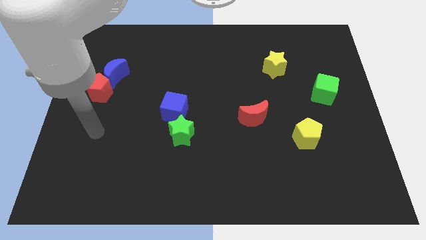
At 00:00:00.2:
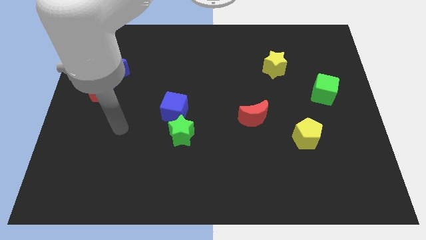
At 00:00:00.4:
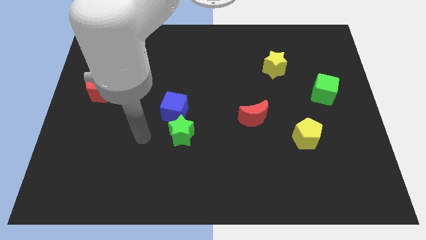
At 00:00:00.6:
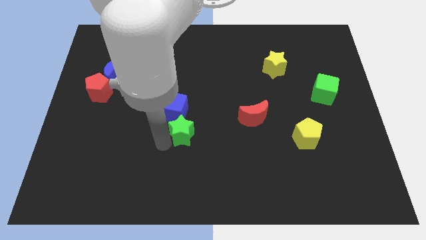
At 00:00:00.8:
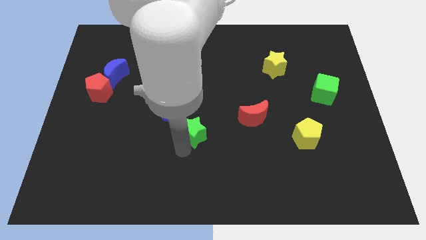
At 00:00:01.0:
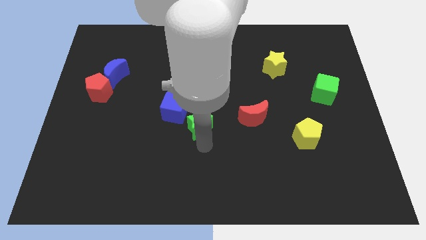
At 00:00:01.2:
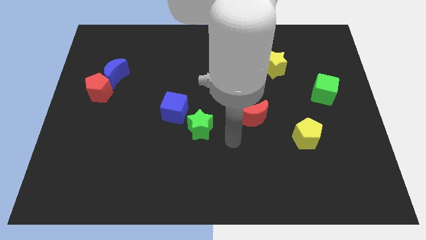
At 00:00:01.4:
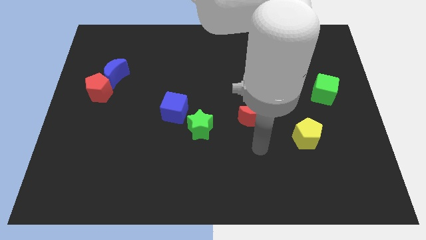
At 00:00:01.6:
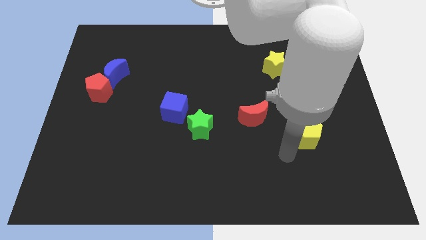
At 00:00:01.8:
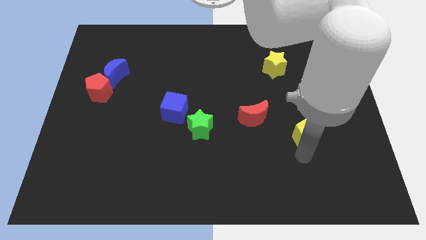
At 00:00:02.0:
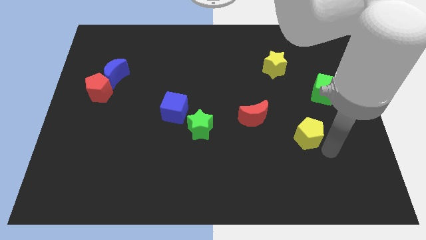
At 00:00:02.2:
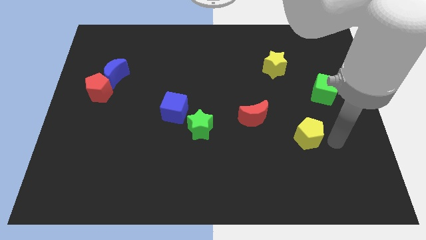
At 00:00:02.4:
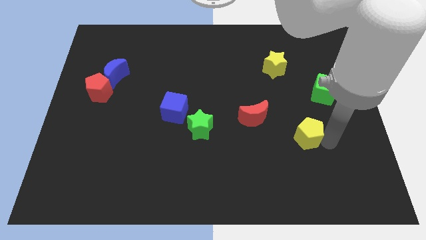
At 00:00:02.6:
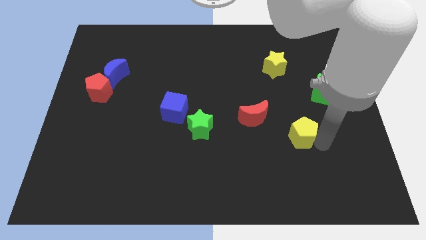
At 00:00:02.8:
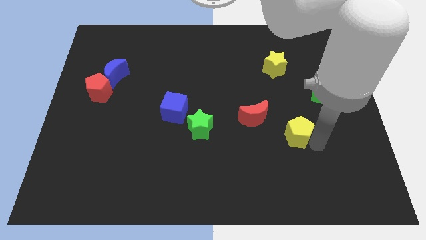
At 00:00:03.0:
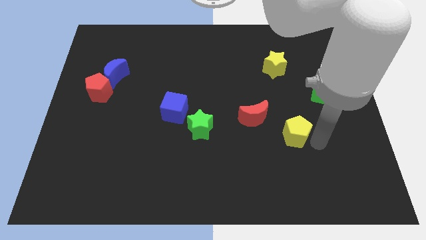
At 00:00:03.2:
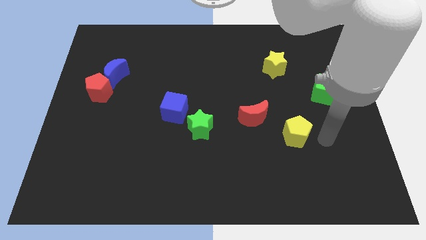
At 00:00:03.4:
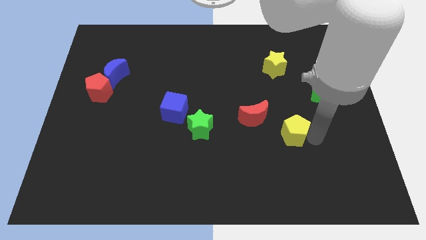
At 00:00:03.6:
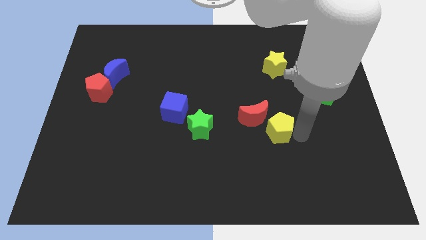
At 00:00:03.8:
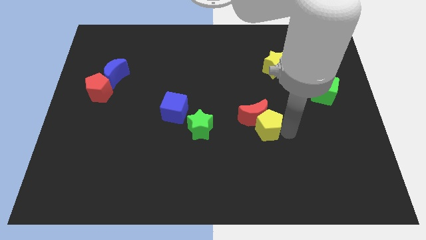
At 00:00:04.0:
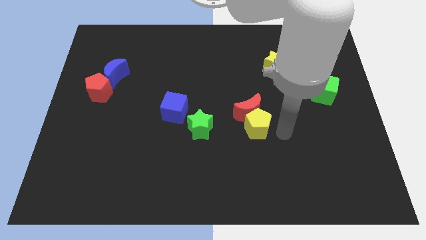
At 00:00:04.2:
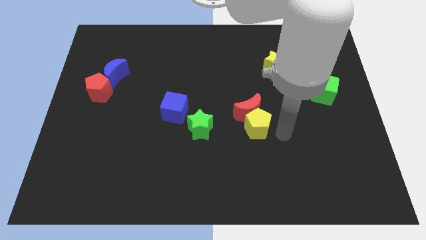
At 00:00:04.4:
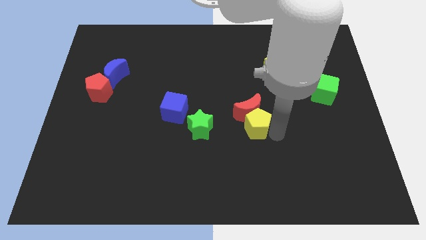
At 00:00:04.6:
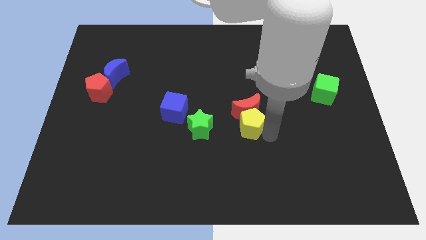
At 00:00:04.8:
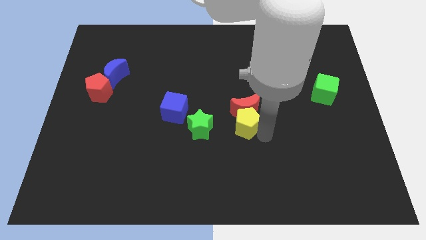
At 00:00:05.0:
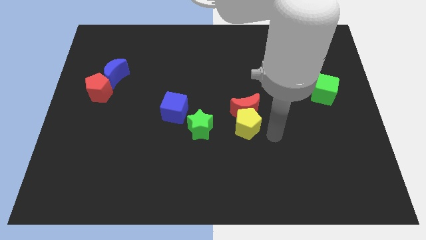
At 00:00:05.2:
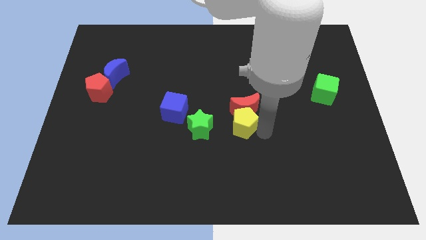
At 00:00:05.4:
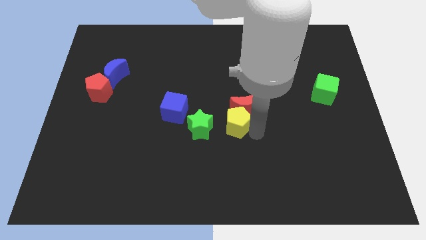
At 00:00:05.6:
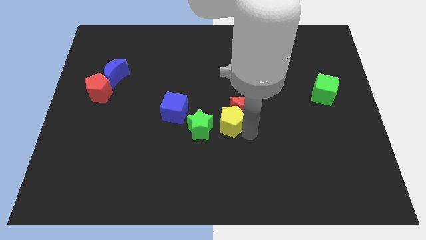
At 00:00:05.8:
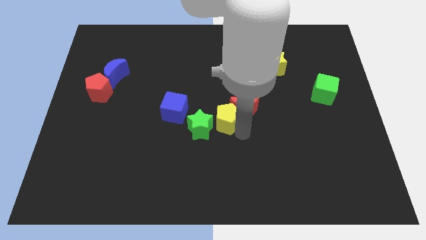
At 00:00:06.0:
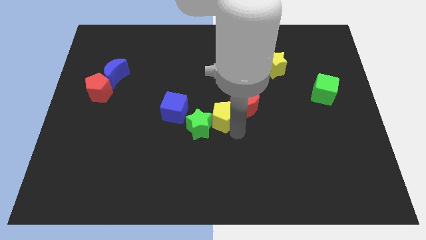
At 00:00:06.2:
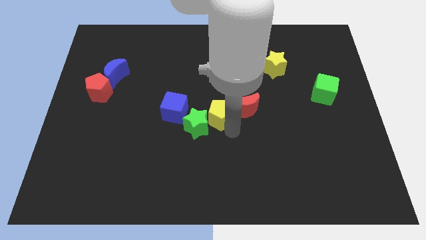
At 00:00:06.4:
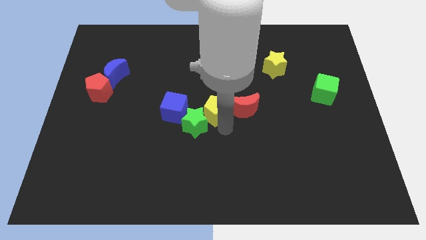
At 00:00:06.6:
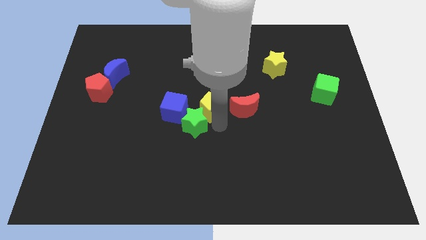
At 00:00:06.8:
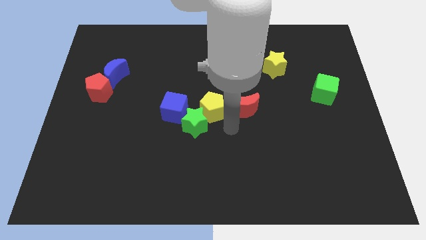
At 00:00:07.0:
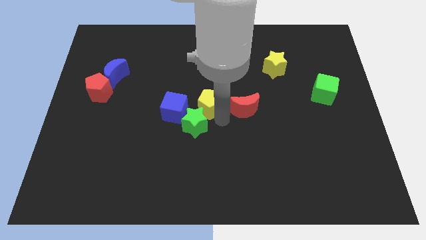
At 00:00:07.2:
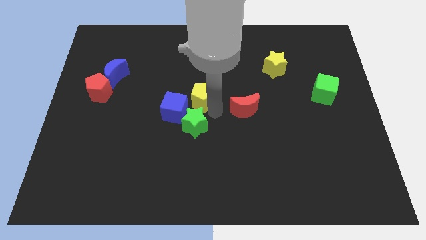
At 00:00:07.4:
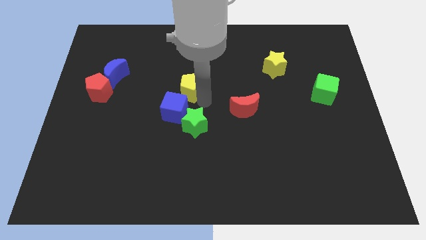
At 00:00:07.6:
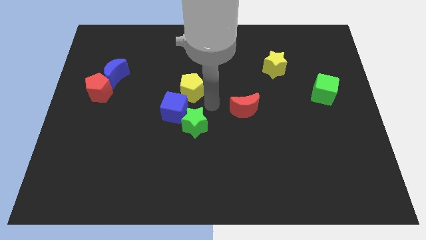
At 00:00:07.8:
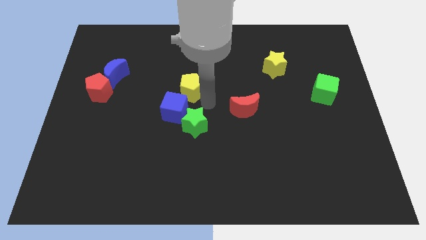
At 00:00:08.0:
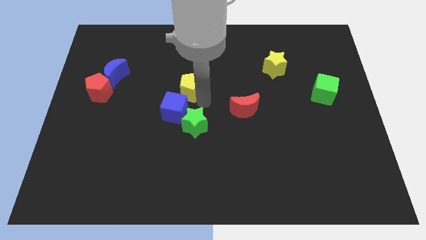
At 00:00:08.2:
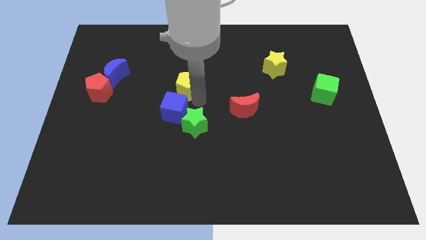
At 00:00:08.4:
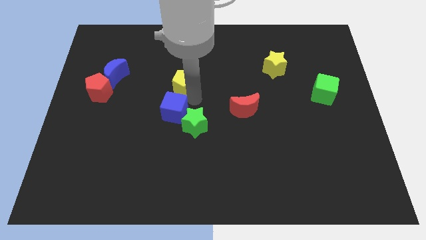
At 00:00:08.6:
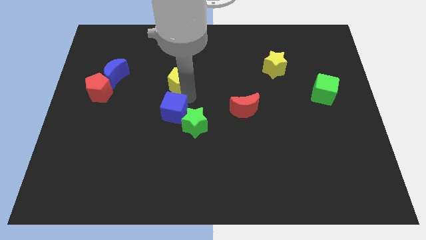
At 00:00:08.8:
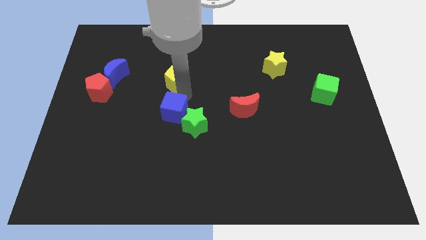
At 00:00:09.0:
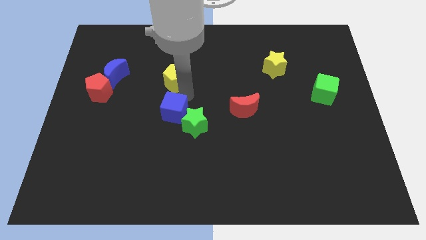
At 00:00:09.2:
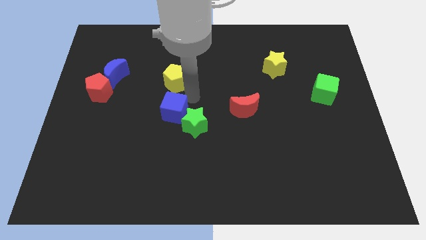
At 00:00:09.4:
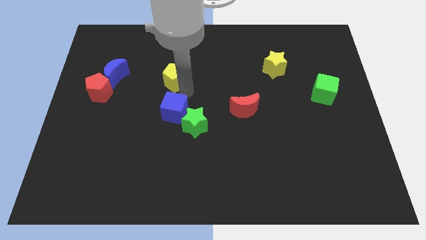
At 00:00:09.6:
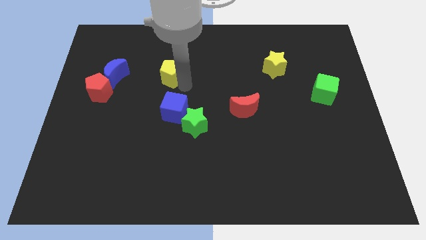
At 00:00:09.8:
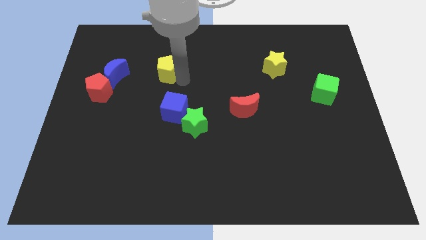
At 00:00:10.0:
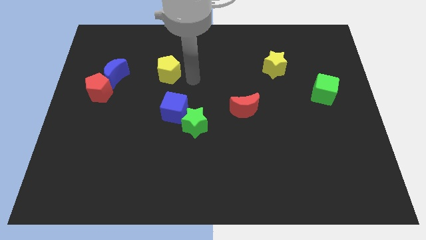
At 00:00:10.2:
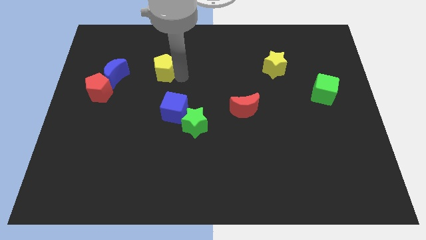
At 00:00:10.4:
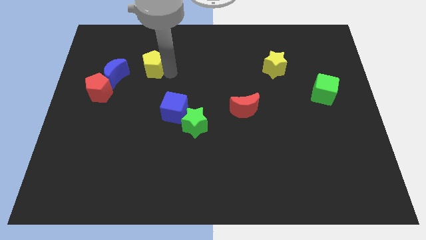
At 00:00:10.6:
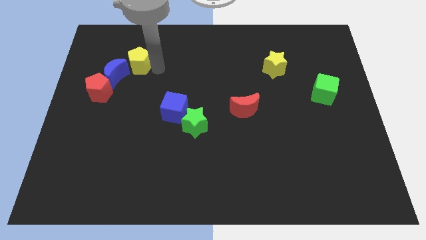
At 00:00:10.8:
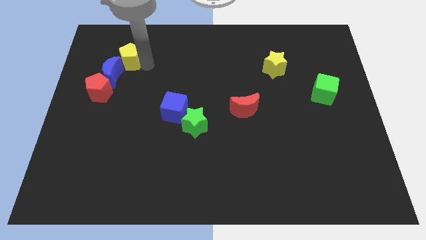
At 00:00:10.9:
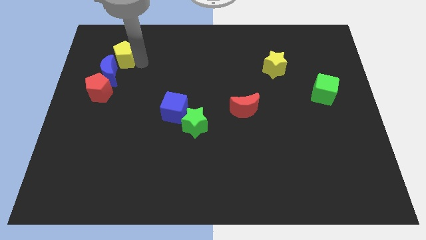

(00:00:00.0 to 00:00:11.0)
move the yellow pentagon above the red pentagon

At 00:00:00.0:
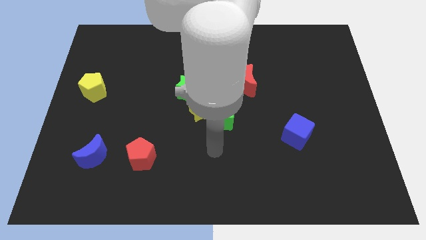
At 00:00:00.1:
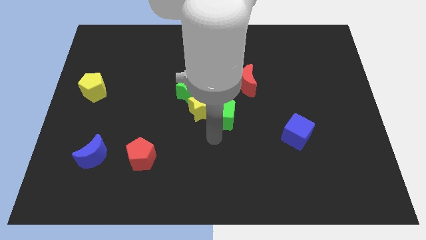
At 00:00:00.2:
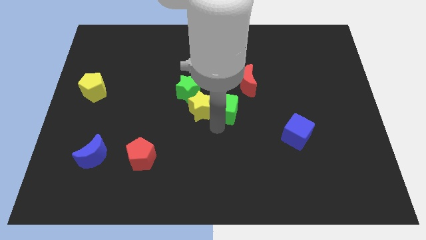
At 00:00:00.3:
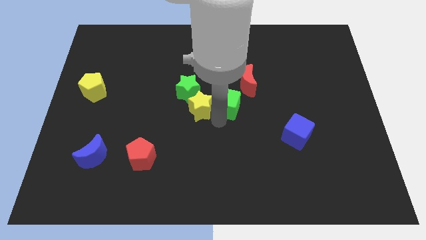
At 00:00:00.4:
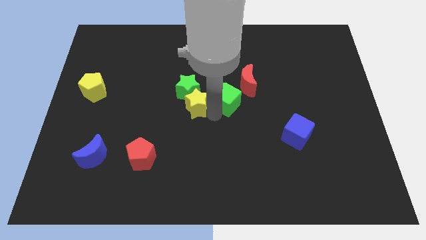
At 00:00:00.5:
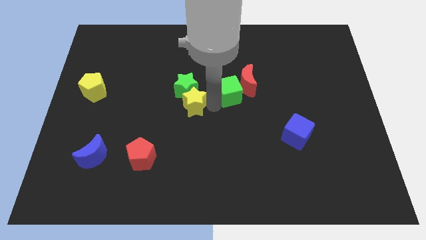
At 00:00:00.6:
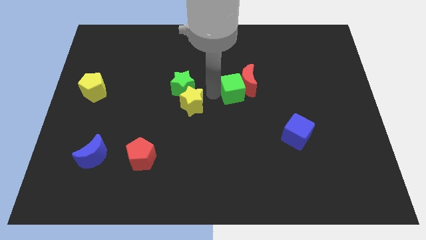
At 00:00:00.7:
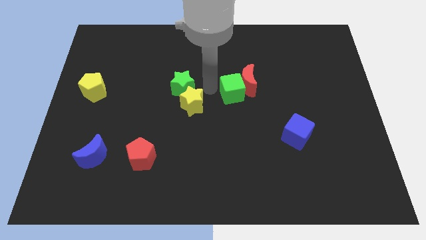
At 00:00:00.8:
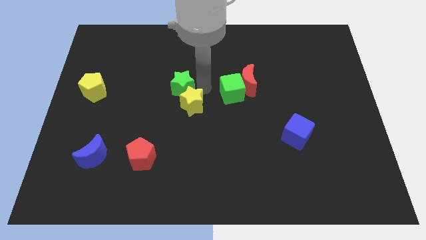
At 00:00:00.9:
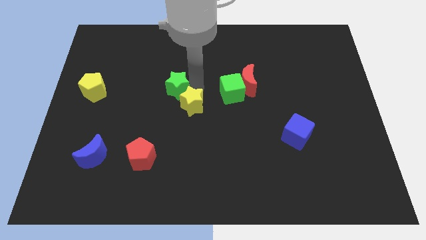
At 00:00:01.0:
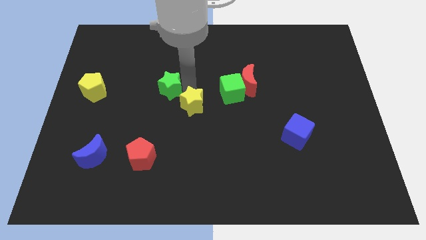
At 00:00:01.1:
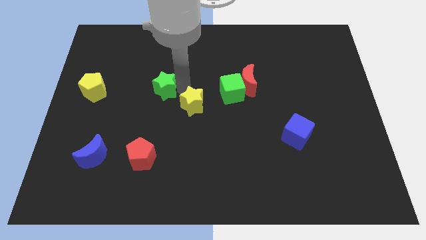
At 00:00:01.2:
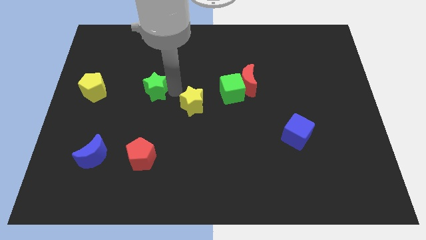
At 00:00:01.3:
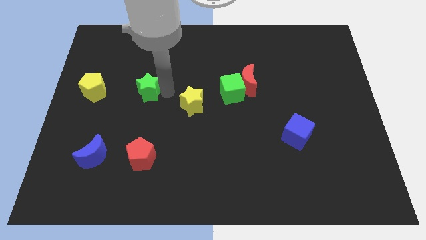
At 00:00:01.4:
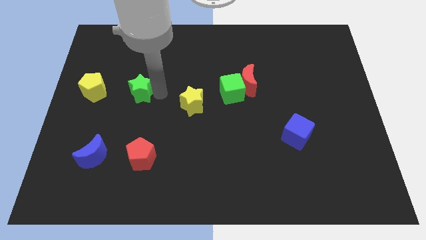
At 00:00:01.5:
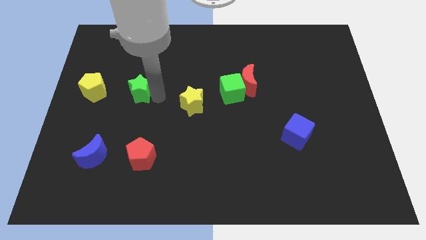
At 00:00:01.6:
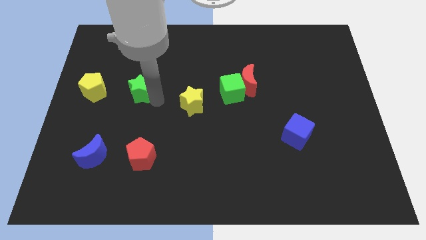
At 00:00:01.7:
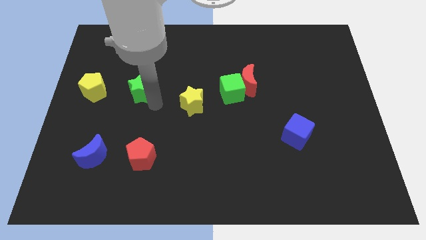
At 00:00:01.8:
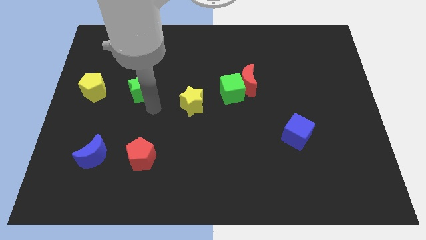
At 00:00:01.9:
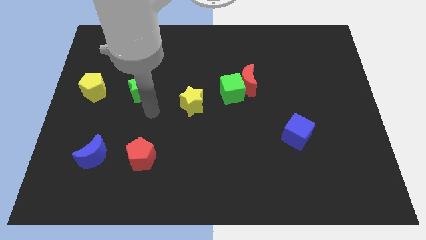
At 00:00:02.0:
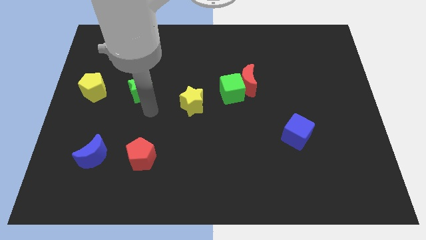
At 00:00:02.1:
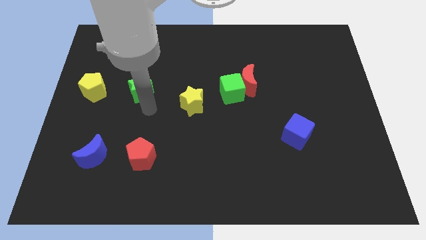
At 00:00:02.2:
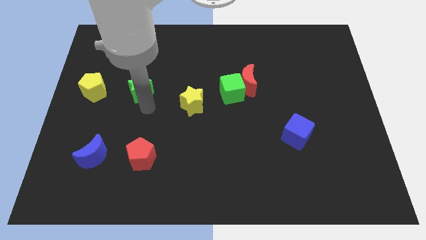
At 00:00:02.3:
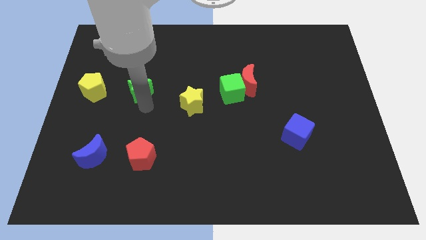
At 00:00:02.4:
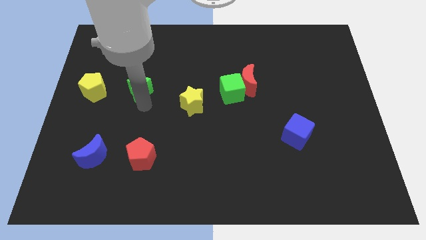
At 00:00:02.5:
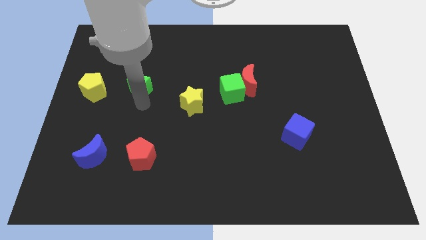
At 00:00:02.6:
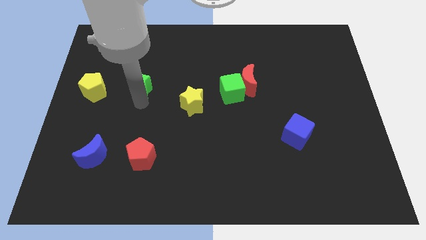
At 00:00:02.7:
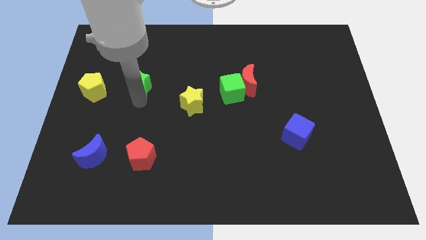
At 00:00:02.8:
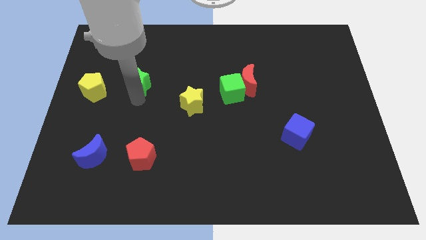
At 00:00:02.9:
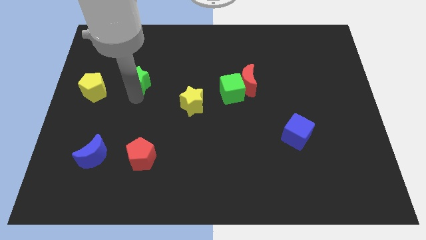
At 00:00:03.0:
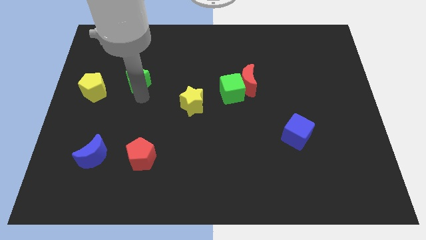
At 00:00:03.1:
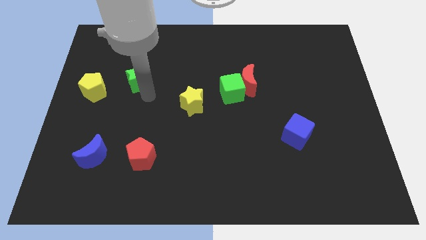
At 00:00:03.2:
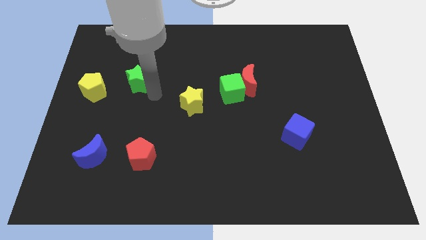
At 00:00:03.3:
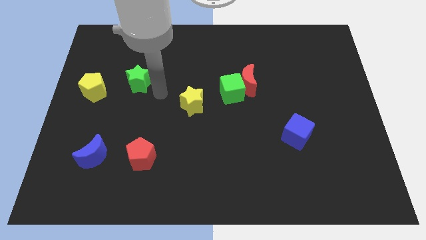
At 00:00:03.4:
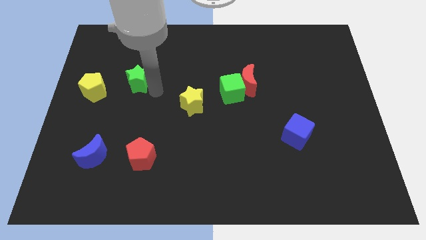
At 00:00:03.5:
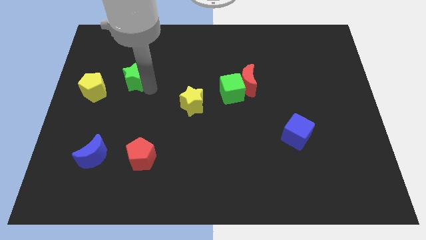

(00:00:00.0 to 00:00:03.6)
slide the green star to the top right of the yellow pentagon
